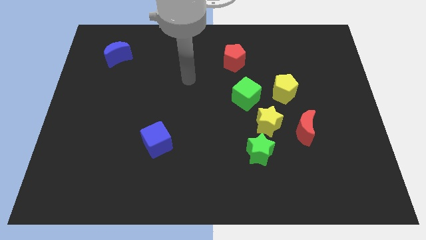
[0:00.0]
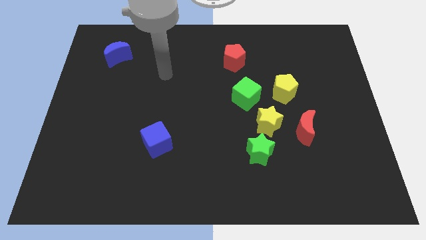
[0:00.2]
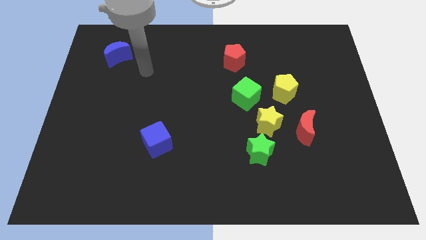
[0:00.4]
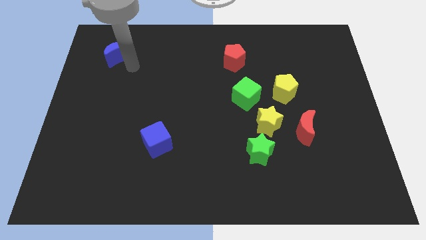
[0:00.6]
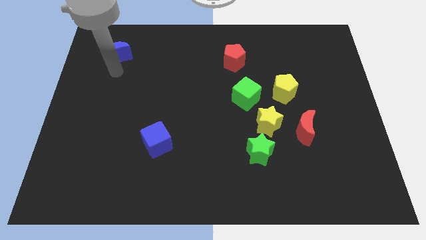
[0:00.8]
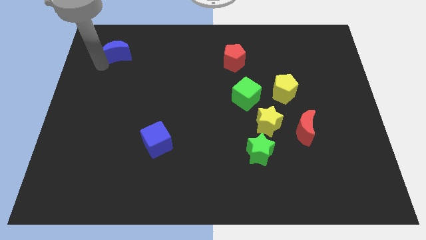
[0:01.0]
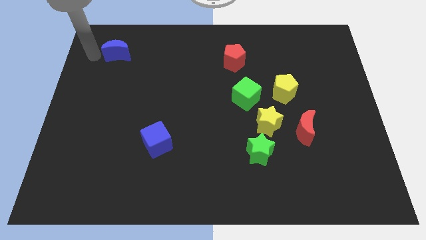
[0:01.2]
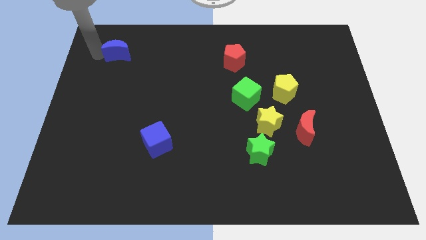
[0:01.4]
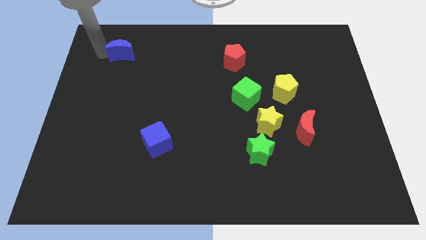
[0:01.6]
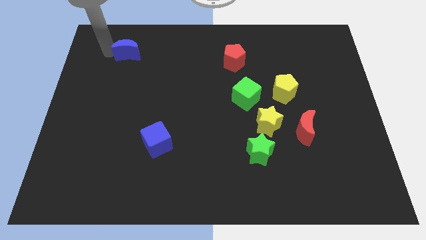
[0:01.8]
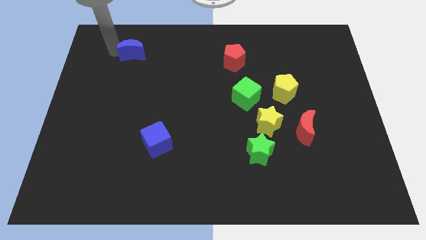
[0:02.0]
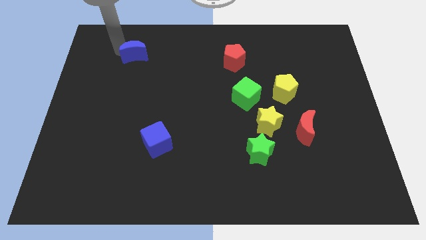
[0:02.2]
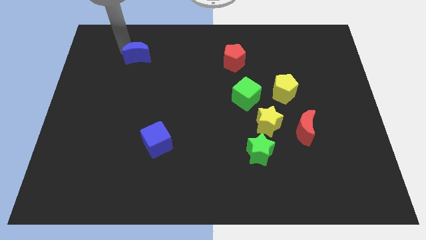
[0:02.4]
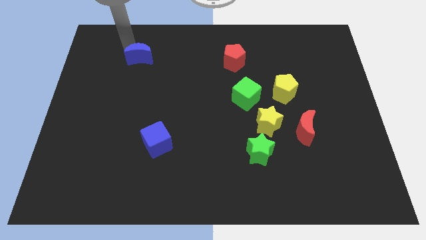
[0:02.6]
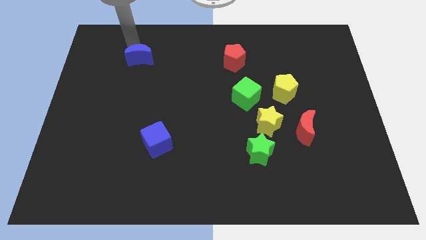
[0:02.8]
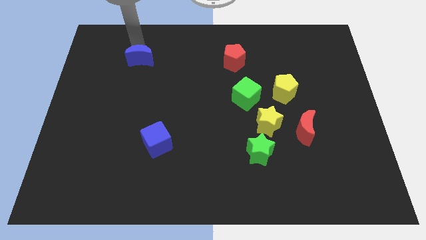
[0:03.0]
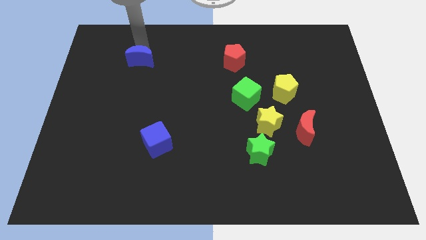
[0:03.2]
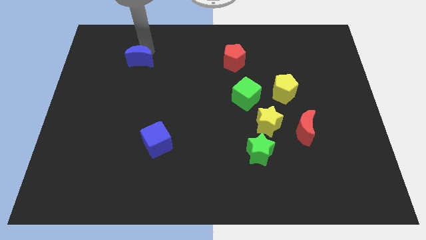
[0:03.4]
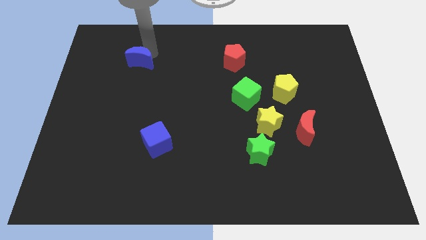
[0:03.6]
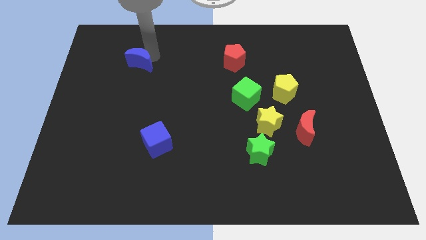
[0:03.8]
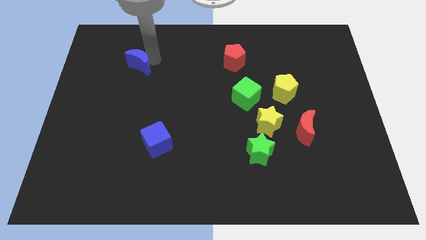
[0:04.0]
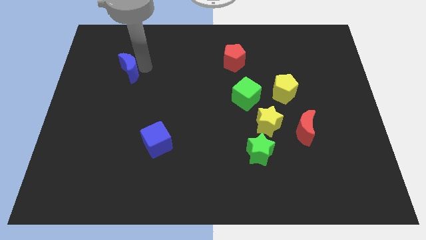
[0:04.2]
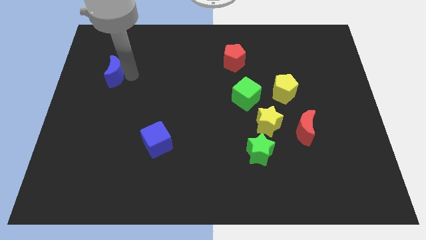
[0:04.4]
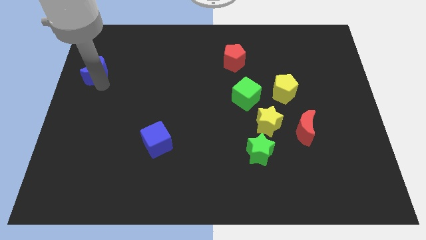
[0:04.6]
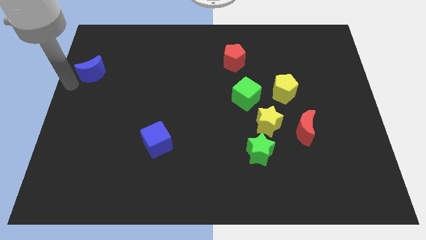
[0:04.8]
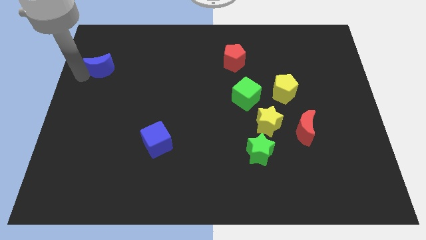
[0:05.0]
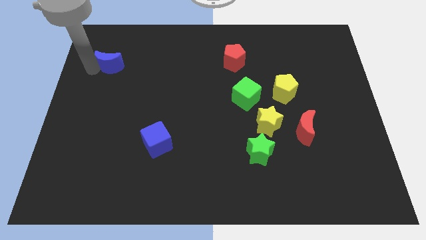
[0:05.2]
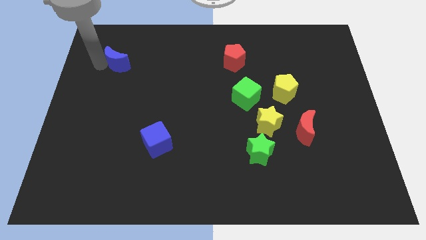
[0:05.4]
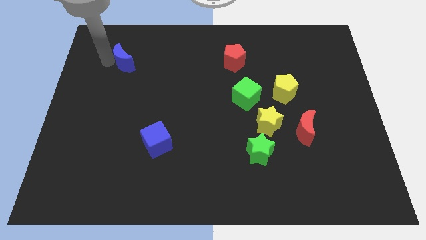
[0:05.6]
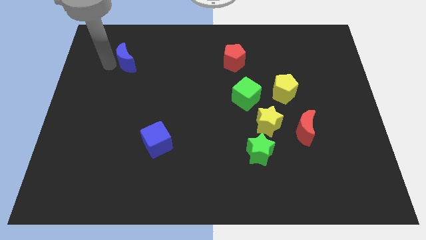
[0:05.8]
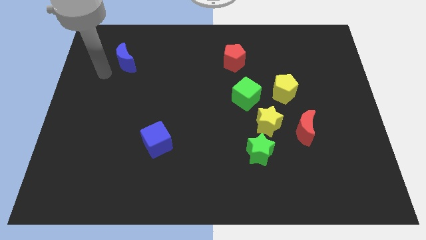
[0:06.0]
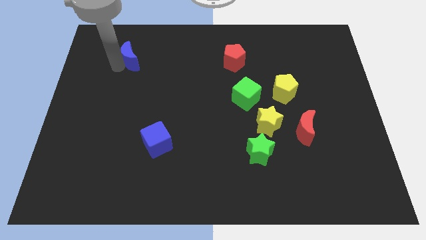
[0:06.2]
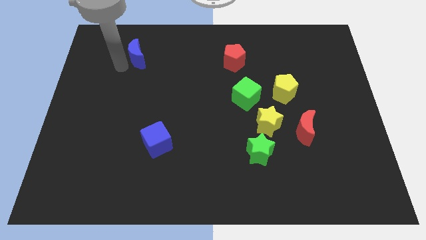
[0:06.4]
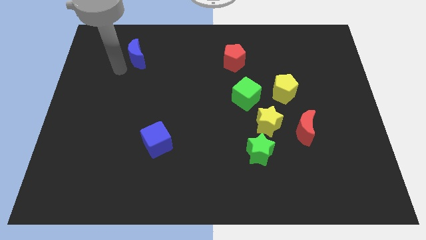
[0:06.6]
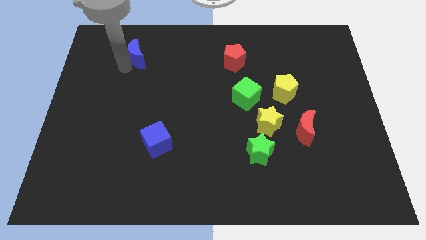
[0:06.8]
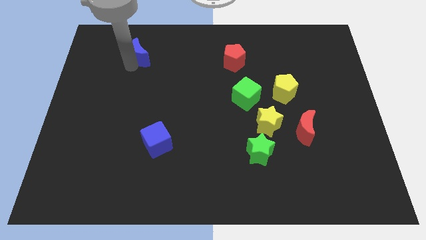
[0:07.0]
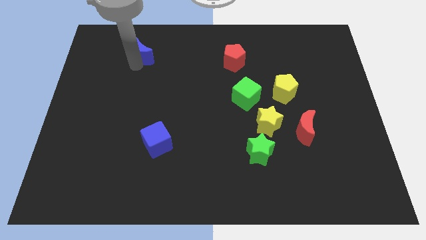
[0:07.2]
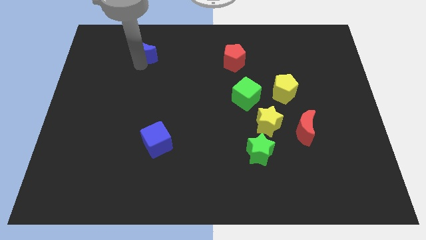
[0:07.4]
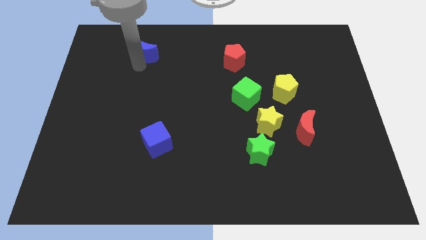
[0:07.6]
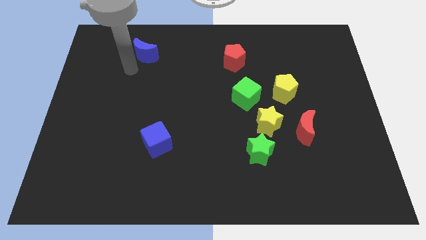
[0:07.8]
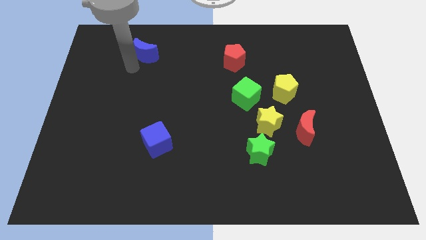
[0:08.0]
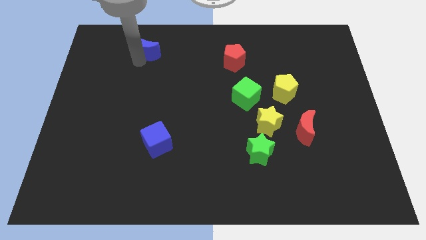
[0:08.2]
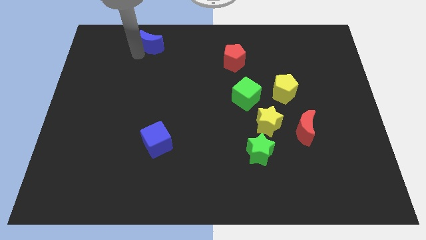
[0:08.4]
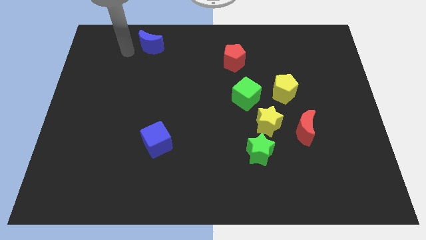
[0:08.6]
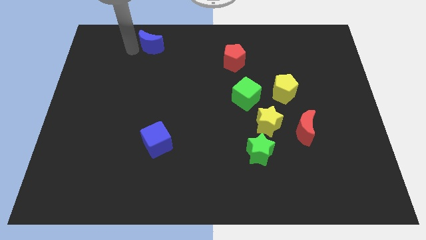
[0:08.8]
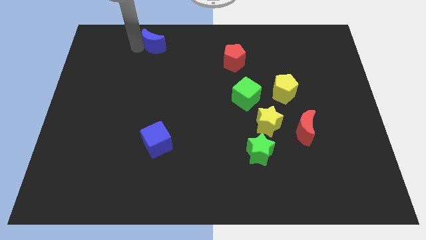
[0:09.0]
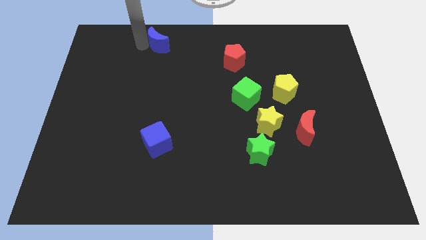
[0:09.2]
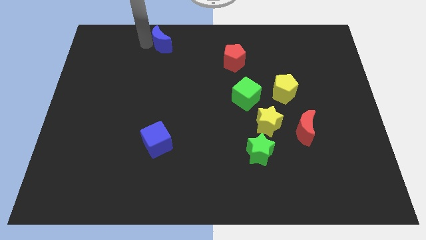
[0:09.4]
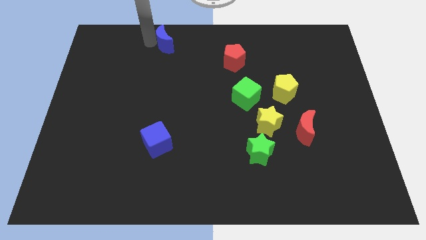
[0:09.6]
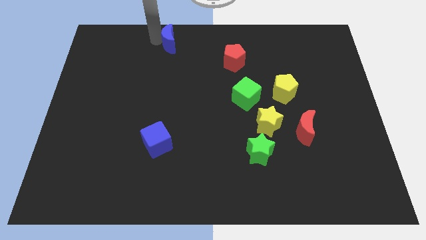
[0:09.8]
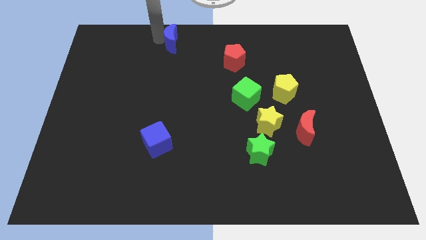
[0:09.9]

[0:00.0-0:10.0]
move the blue moon to the top side

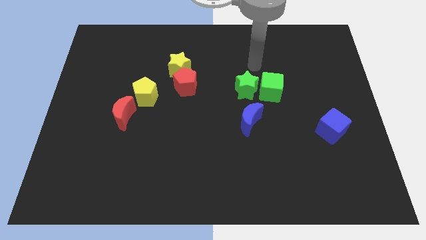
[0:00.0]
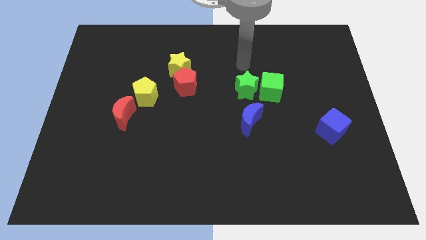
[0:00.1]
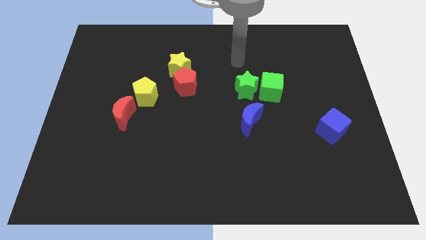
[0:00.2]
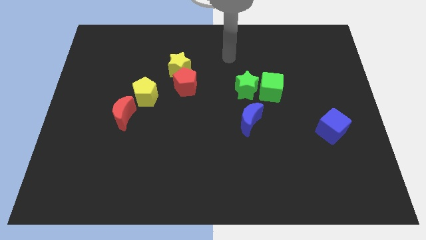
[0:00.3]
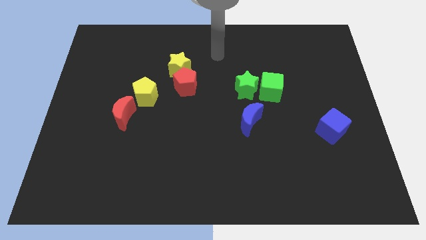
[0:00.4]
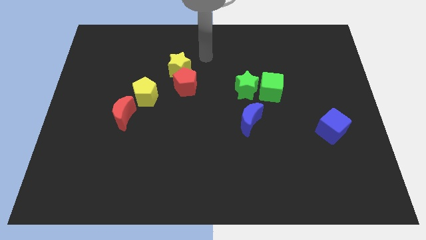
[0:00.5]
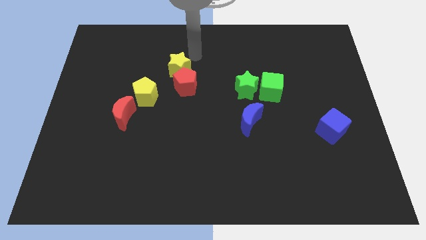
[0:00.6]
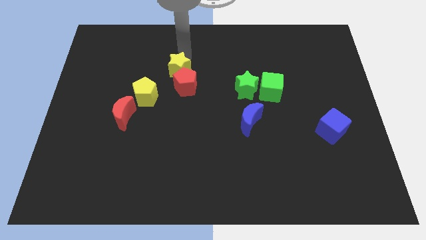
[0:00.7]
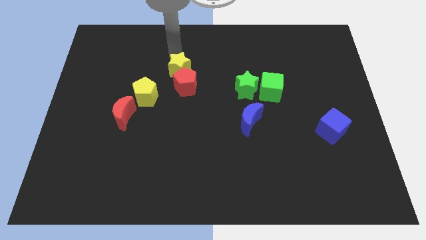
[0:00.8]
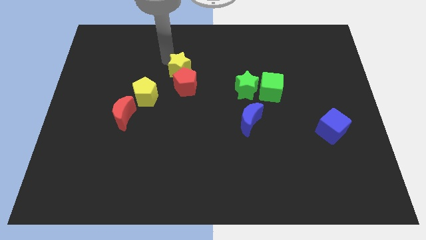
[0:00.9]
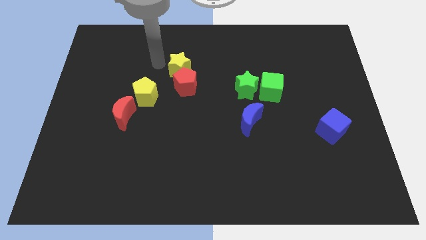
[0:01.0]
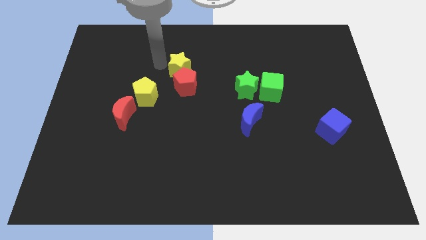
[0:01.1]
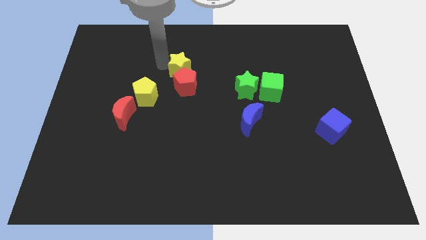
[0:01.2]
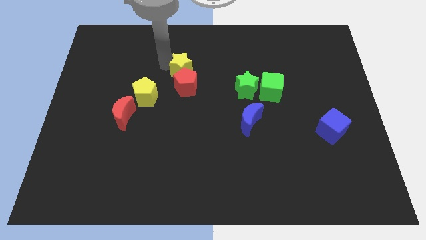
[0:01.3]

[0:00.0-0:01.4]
move the yellow star to the middle
